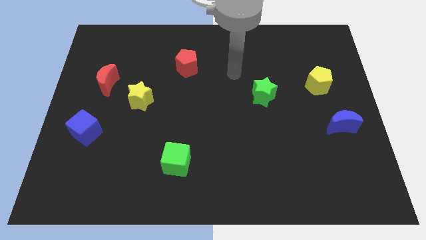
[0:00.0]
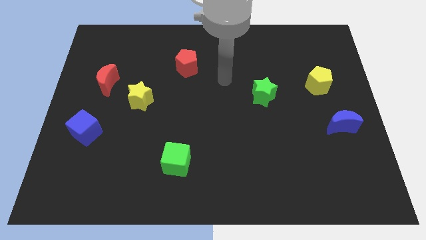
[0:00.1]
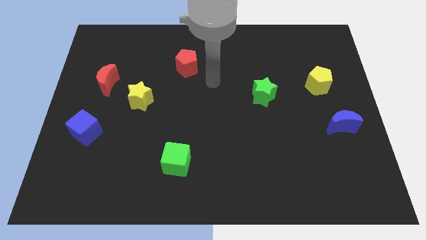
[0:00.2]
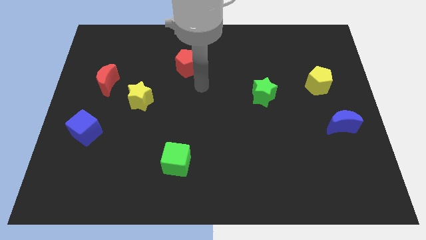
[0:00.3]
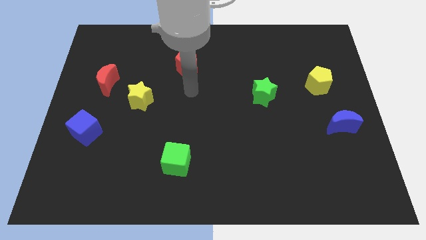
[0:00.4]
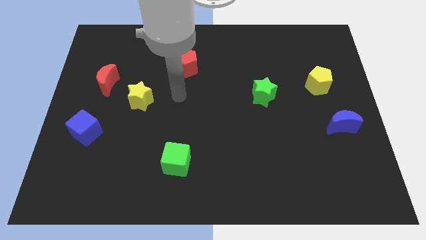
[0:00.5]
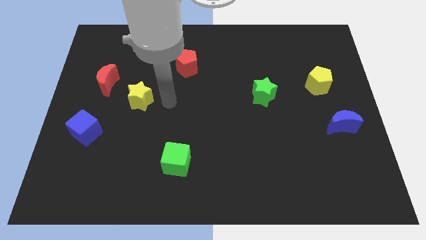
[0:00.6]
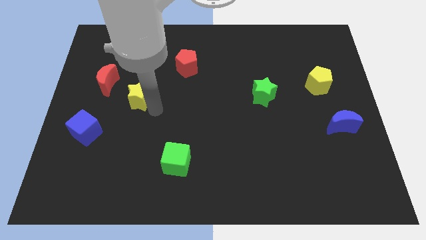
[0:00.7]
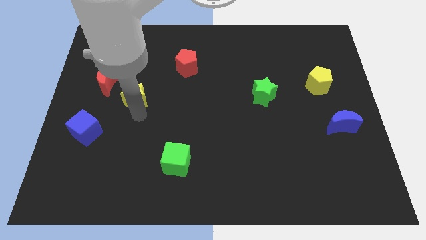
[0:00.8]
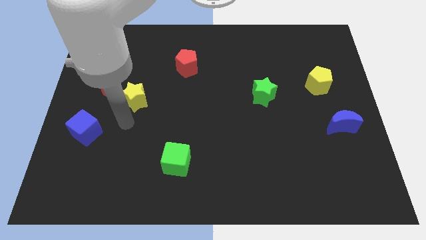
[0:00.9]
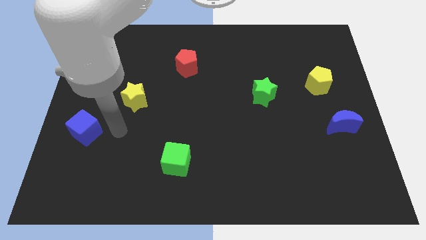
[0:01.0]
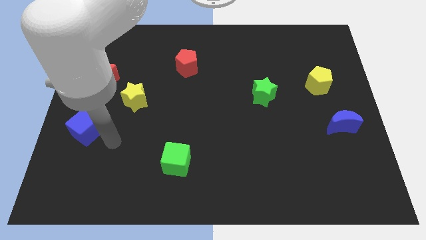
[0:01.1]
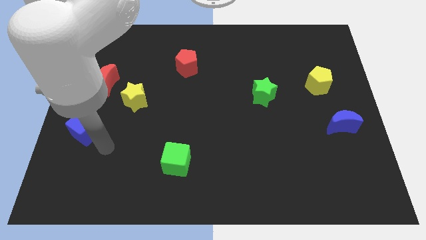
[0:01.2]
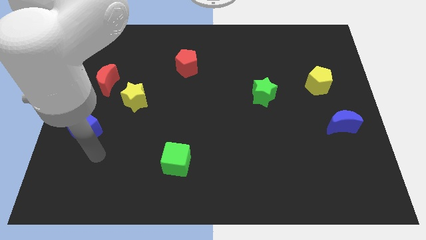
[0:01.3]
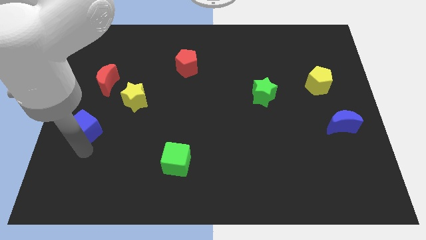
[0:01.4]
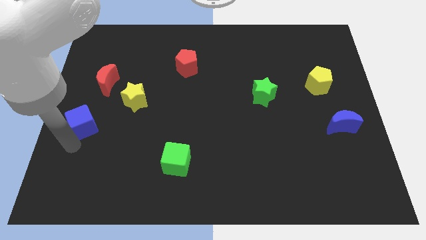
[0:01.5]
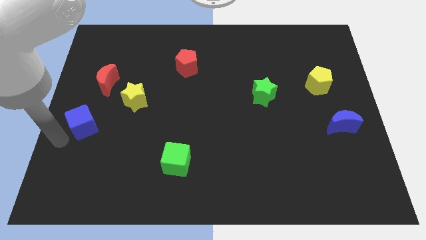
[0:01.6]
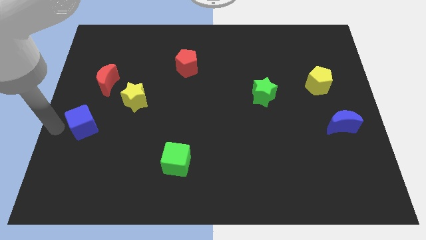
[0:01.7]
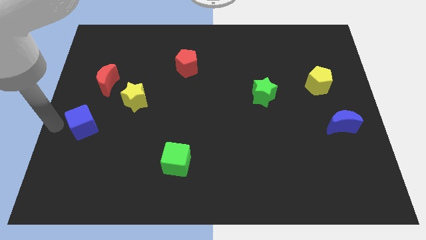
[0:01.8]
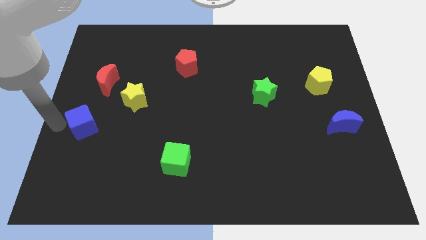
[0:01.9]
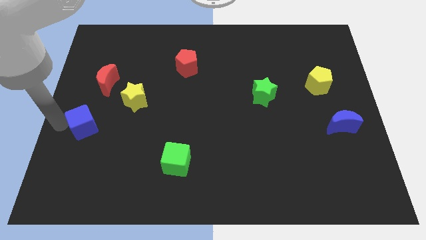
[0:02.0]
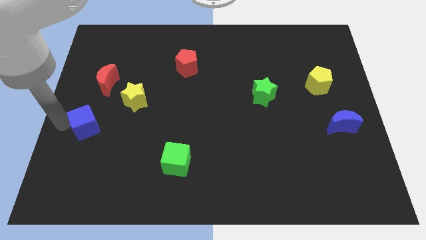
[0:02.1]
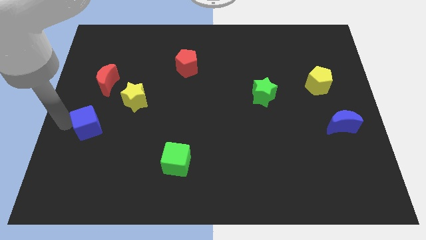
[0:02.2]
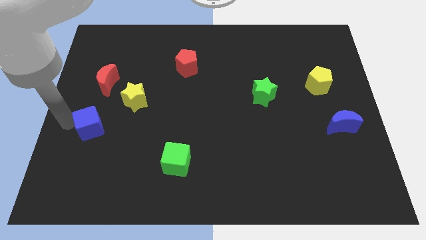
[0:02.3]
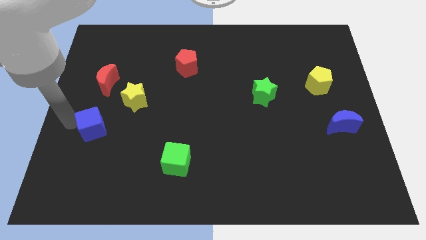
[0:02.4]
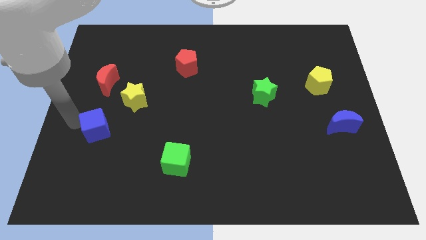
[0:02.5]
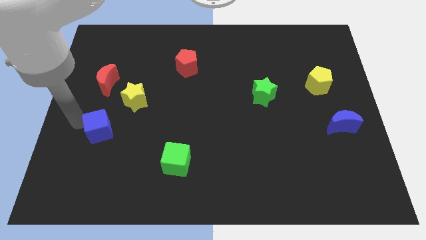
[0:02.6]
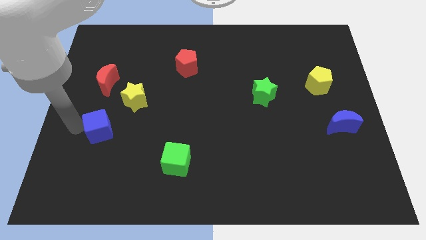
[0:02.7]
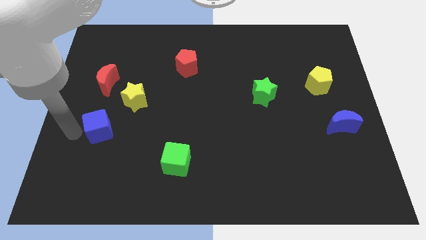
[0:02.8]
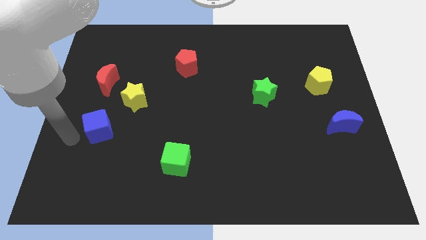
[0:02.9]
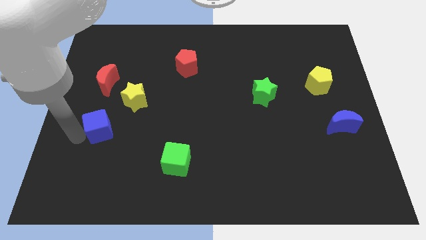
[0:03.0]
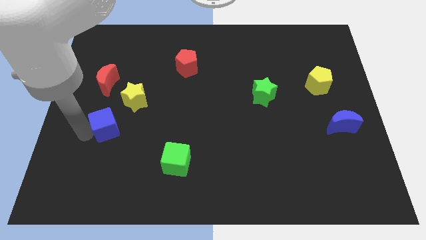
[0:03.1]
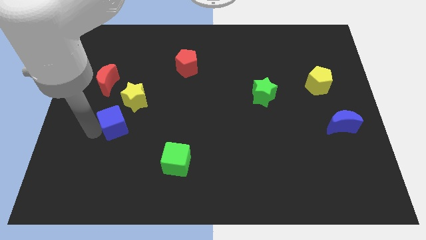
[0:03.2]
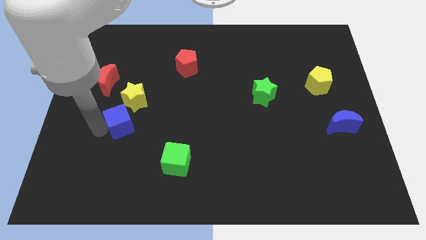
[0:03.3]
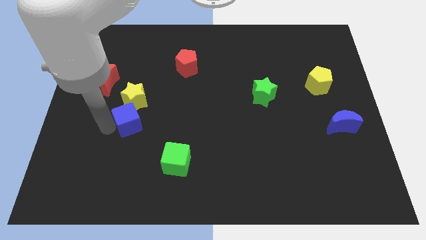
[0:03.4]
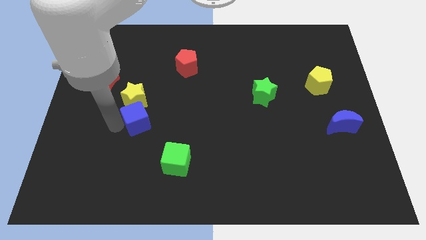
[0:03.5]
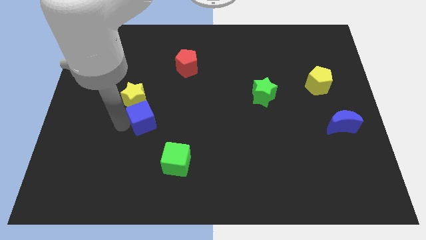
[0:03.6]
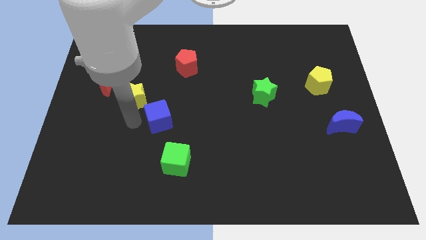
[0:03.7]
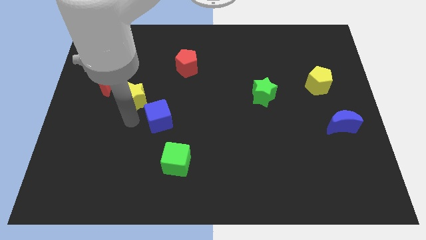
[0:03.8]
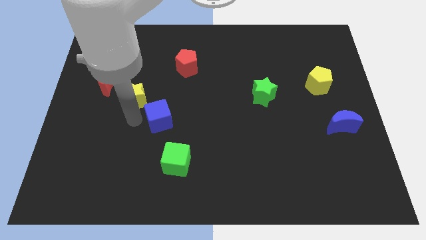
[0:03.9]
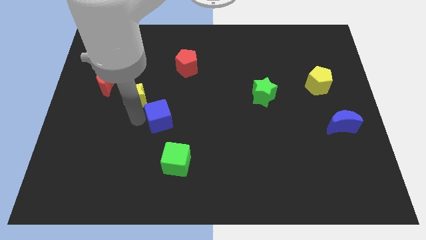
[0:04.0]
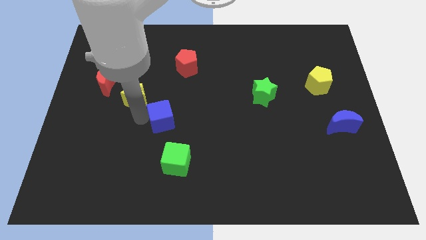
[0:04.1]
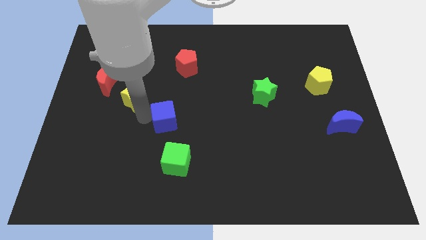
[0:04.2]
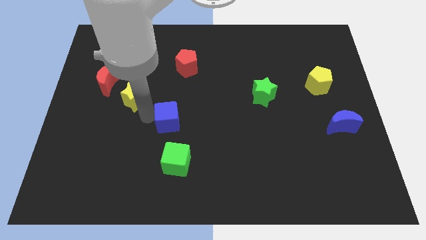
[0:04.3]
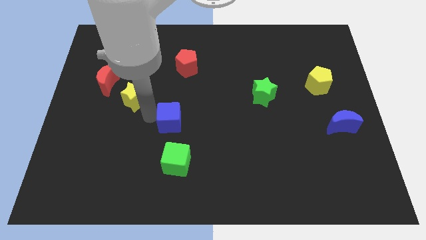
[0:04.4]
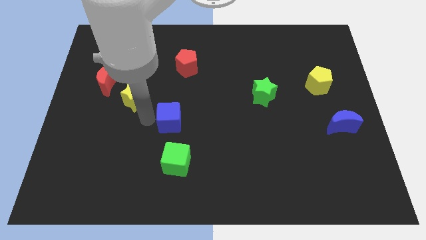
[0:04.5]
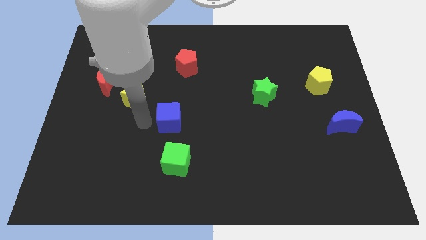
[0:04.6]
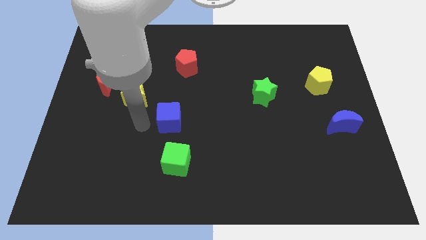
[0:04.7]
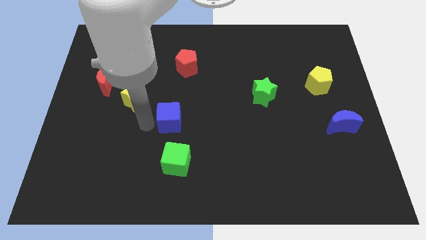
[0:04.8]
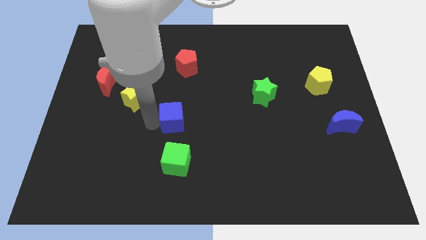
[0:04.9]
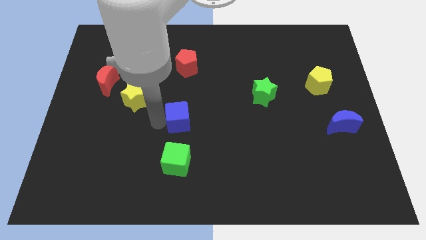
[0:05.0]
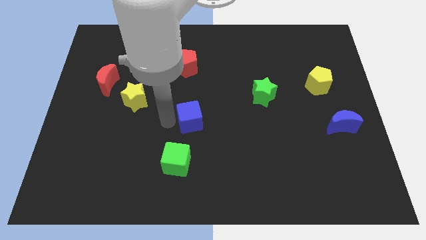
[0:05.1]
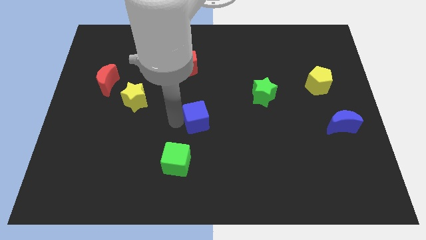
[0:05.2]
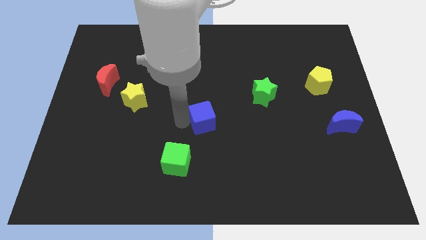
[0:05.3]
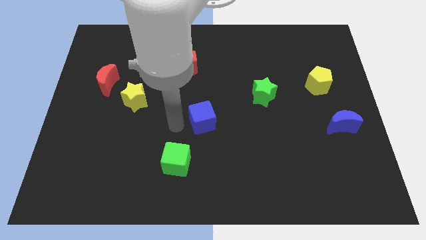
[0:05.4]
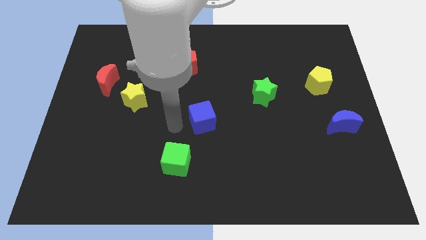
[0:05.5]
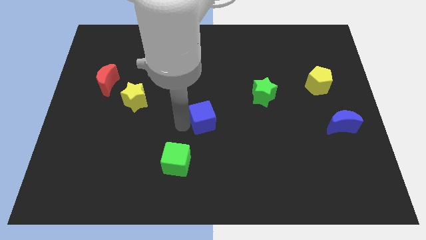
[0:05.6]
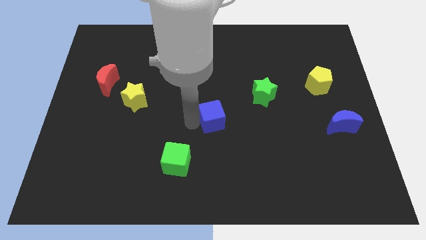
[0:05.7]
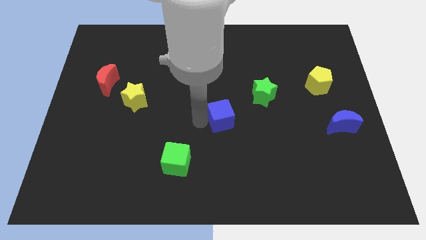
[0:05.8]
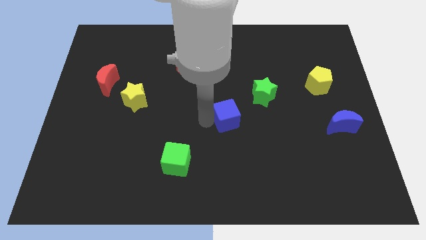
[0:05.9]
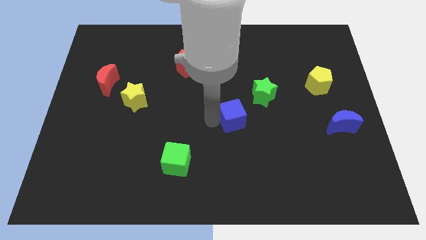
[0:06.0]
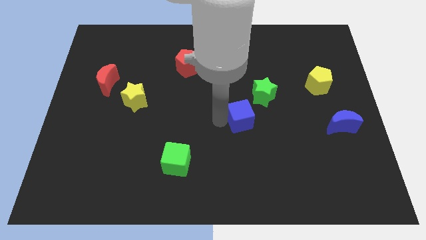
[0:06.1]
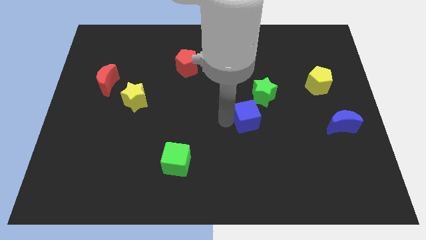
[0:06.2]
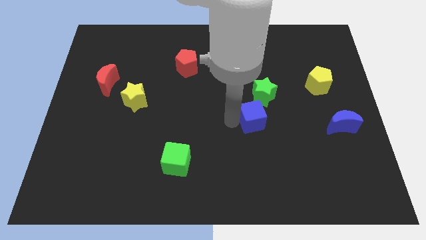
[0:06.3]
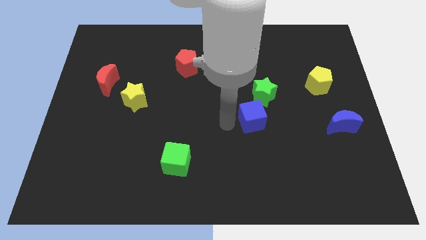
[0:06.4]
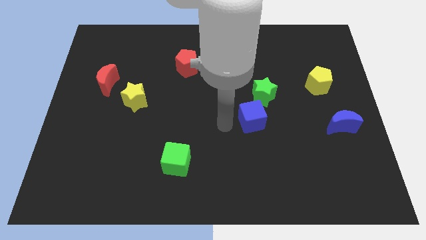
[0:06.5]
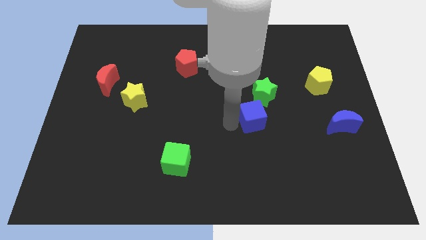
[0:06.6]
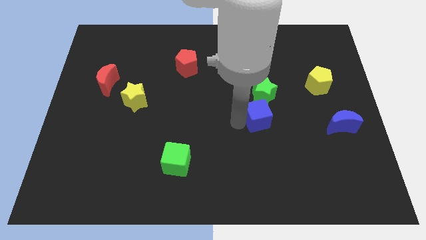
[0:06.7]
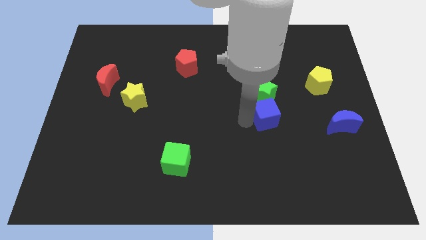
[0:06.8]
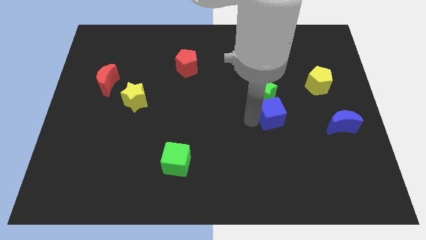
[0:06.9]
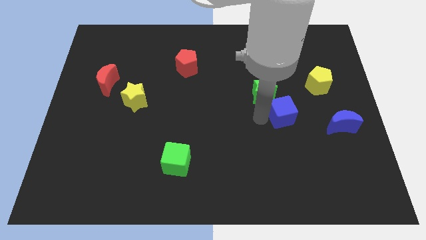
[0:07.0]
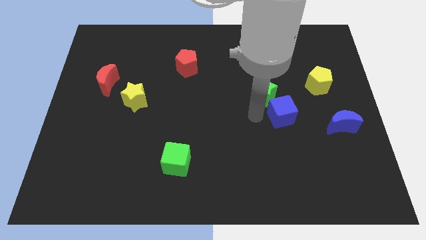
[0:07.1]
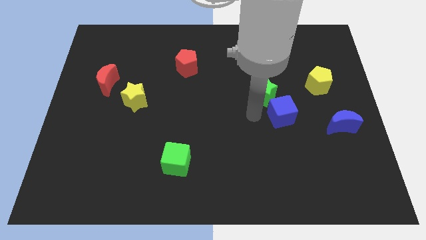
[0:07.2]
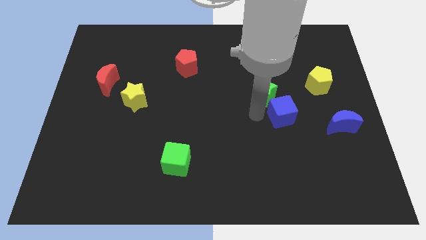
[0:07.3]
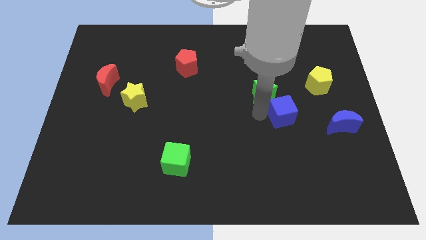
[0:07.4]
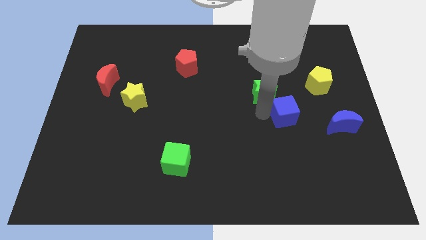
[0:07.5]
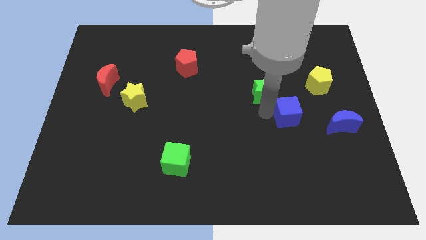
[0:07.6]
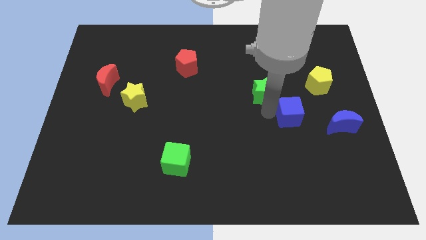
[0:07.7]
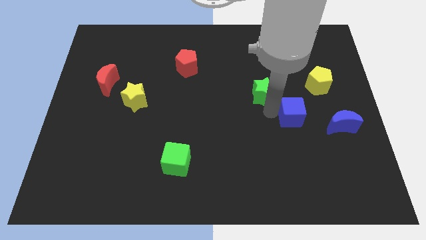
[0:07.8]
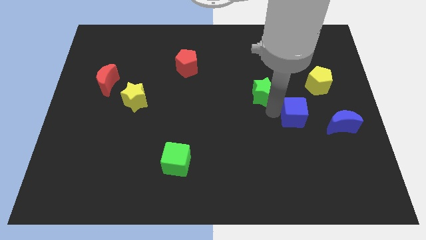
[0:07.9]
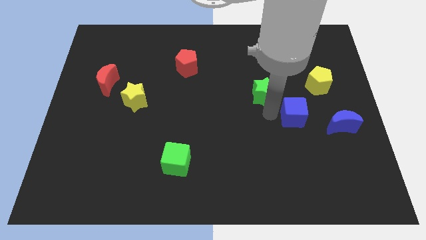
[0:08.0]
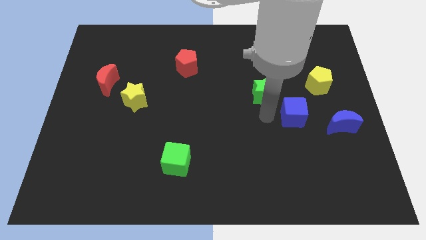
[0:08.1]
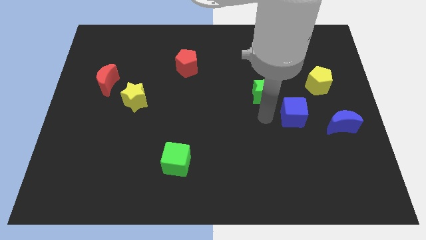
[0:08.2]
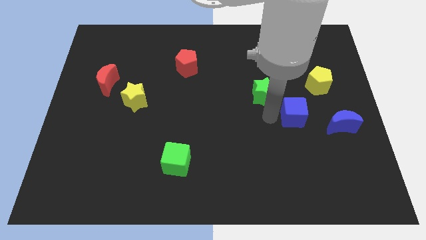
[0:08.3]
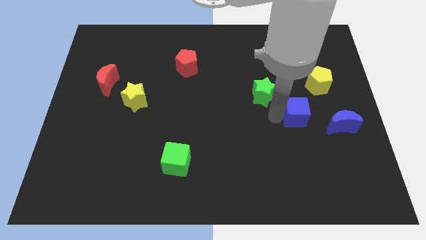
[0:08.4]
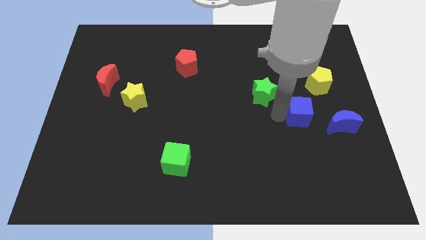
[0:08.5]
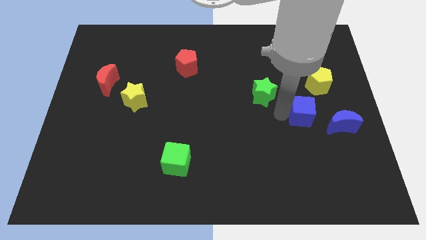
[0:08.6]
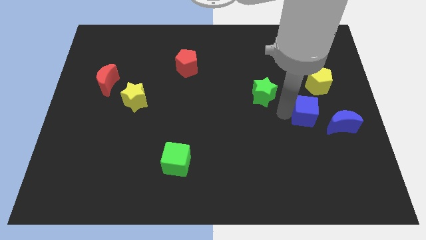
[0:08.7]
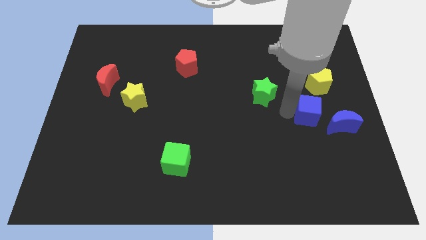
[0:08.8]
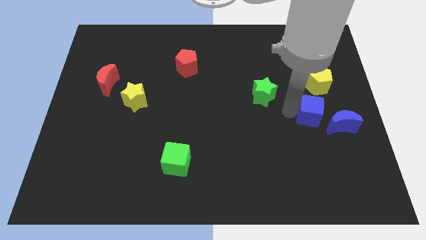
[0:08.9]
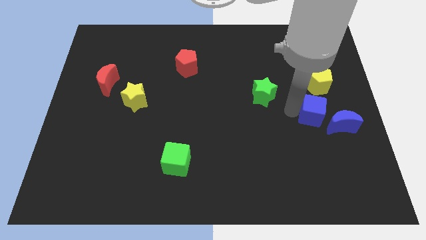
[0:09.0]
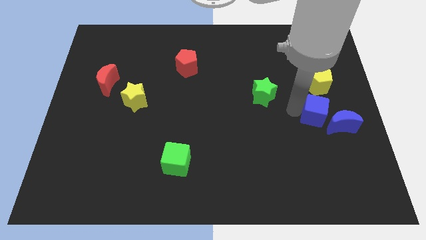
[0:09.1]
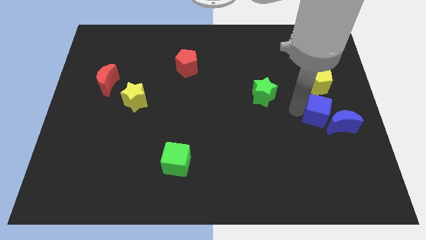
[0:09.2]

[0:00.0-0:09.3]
slide the blue cube to the blue moon
